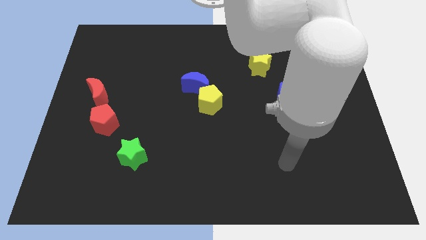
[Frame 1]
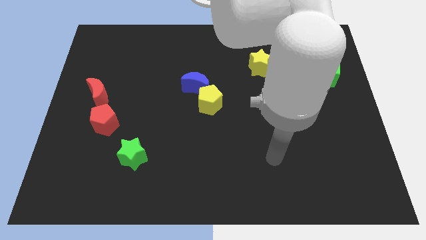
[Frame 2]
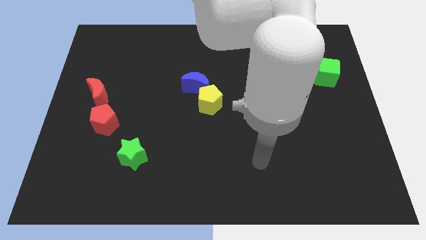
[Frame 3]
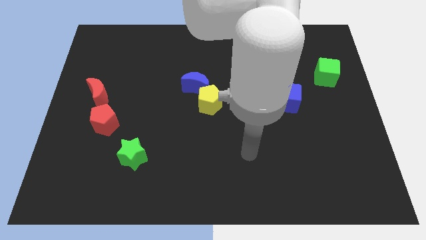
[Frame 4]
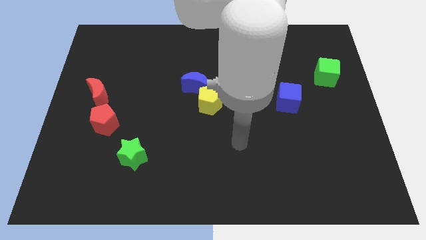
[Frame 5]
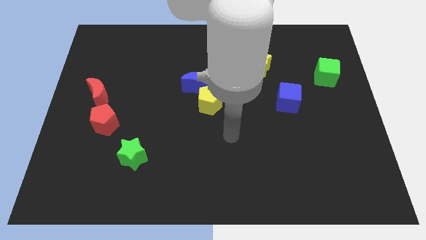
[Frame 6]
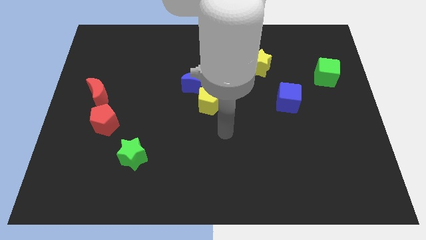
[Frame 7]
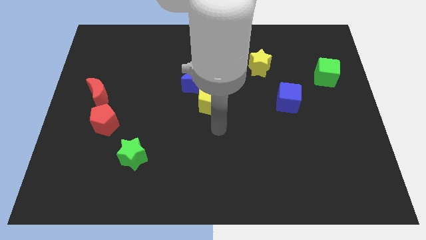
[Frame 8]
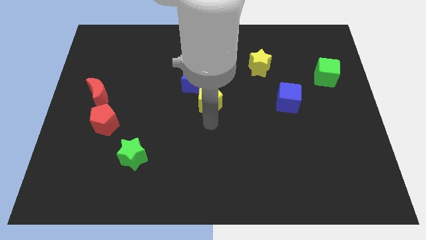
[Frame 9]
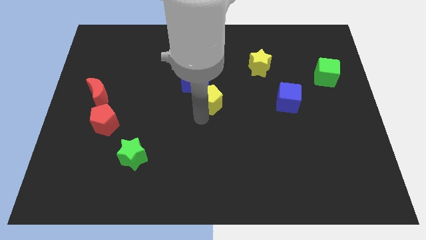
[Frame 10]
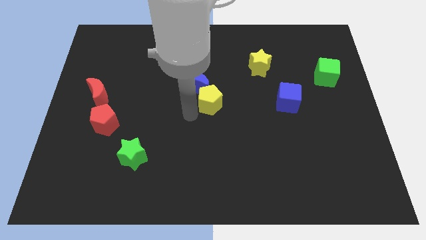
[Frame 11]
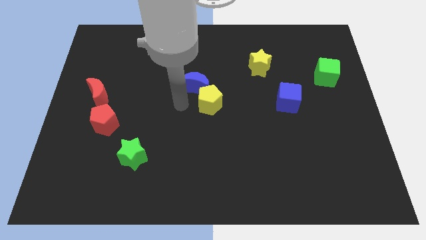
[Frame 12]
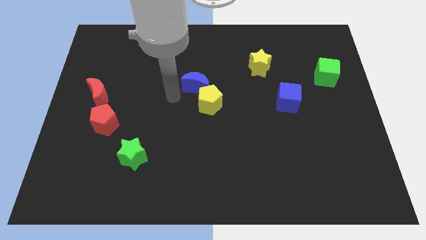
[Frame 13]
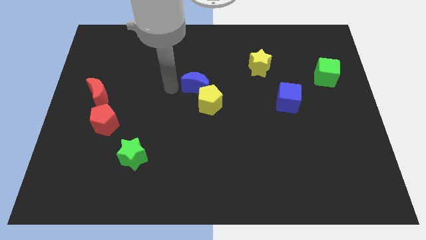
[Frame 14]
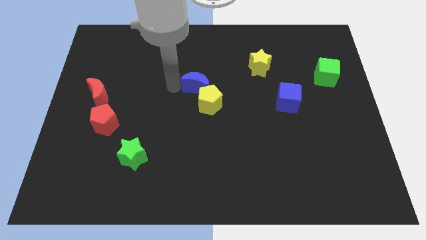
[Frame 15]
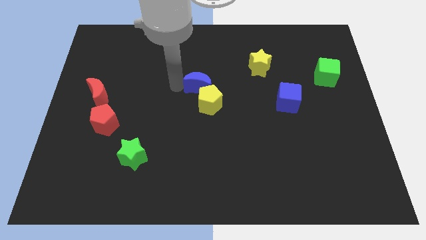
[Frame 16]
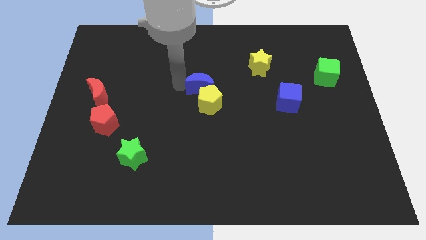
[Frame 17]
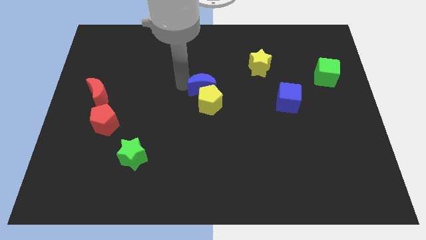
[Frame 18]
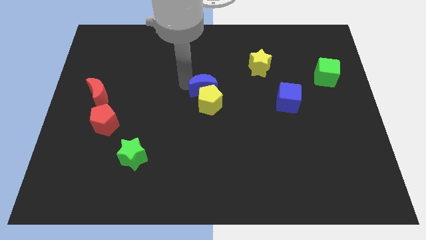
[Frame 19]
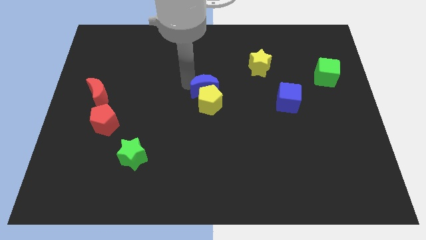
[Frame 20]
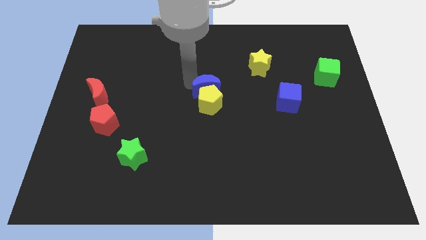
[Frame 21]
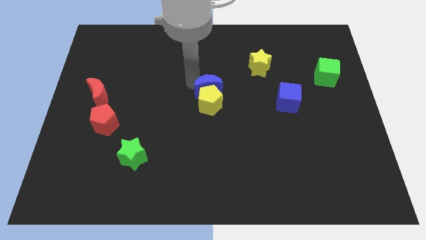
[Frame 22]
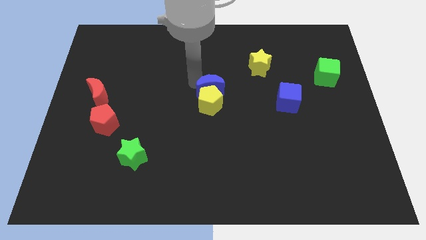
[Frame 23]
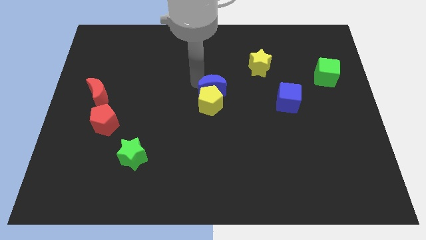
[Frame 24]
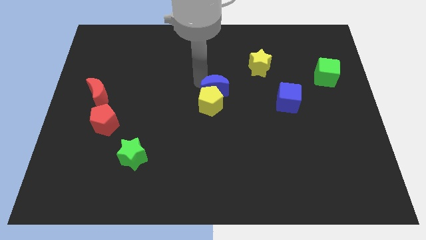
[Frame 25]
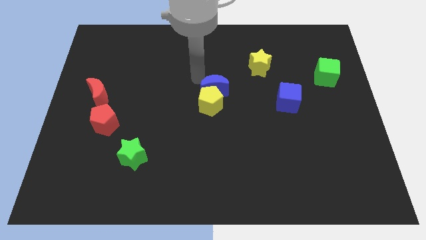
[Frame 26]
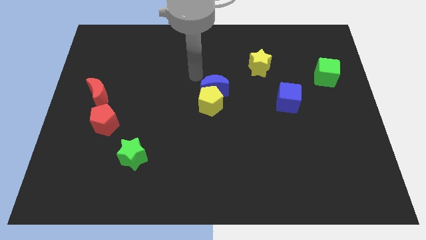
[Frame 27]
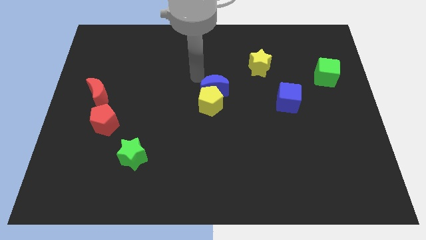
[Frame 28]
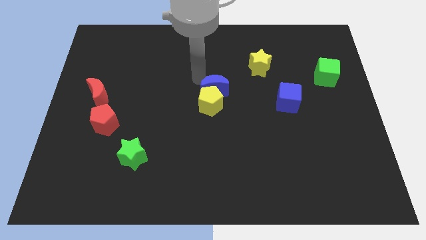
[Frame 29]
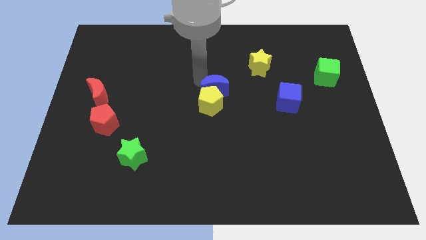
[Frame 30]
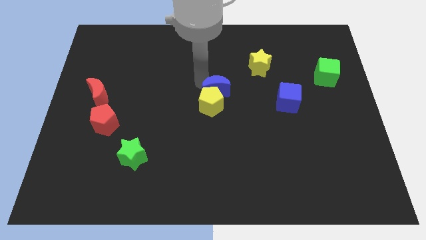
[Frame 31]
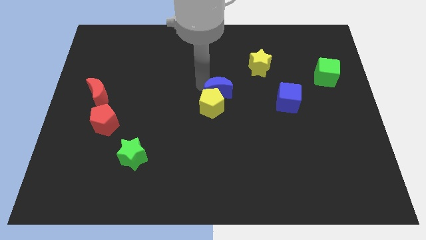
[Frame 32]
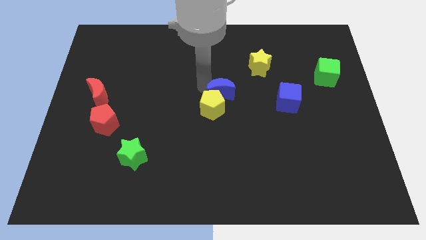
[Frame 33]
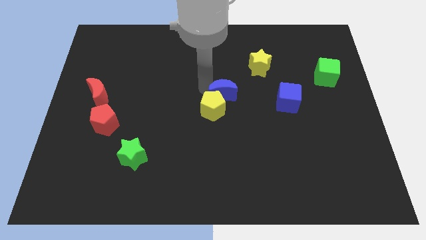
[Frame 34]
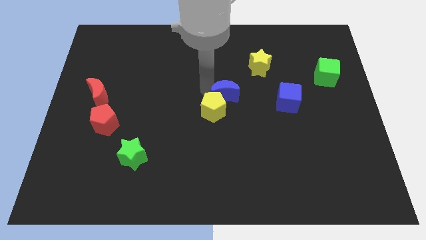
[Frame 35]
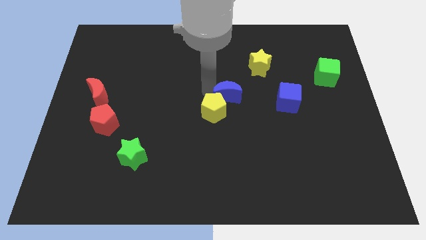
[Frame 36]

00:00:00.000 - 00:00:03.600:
slightly slide the blue moon down and then right

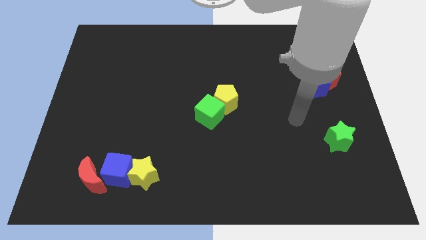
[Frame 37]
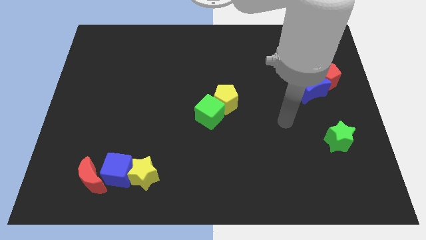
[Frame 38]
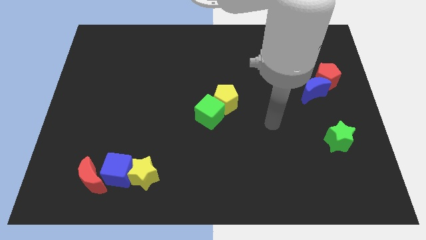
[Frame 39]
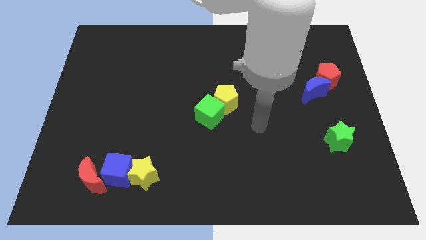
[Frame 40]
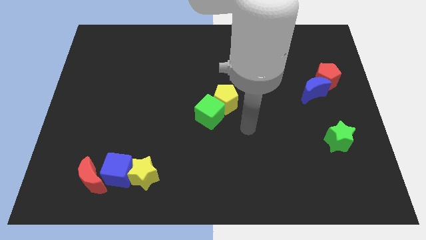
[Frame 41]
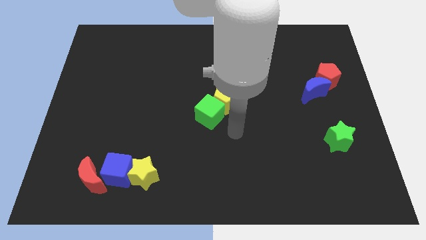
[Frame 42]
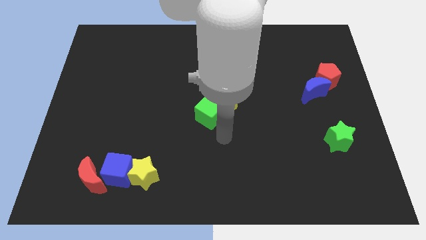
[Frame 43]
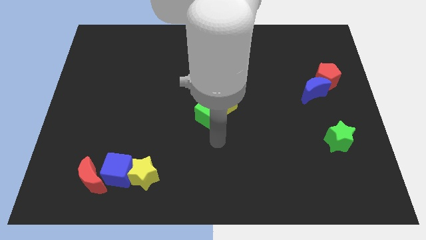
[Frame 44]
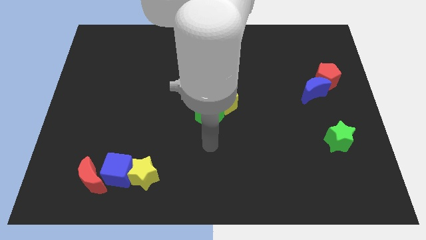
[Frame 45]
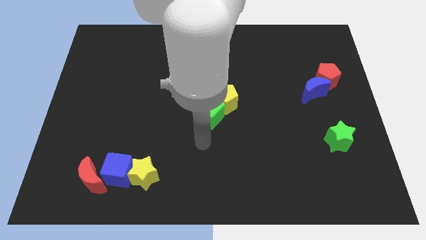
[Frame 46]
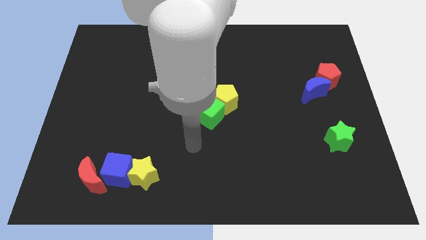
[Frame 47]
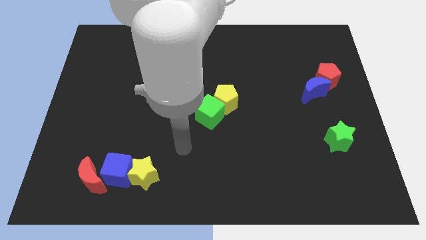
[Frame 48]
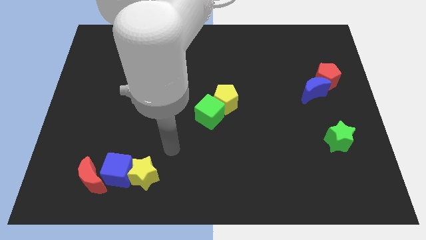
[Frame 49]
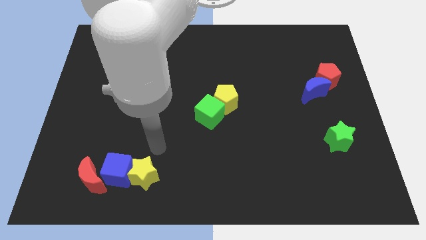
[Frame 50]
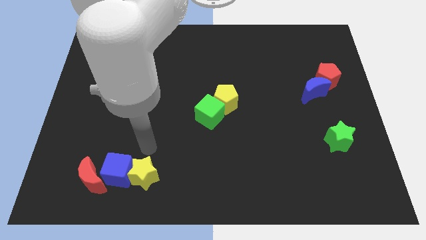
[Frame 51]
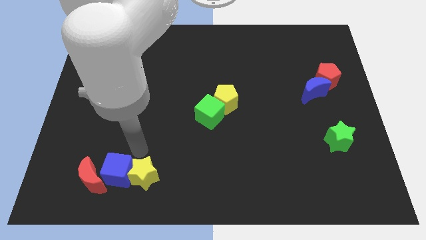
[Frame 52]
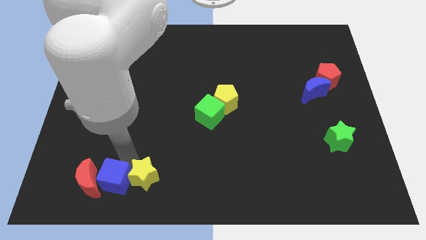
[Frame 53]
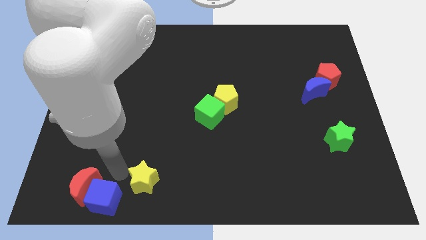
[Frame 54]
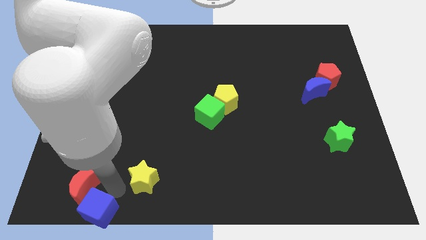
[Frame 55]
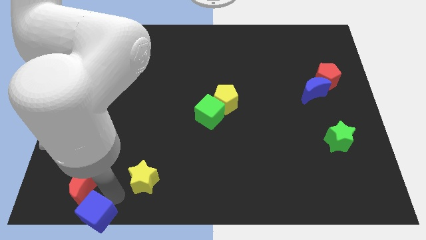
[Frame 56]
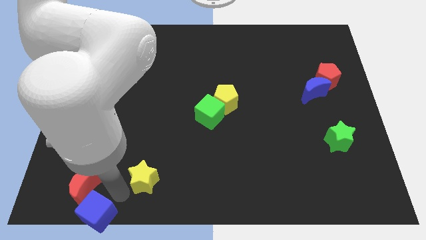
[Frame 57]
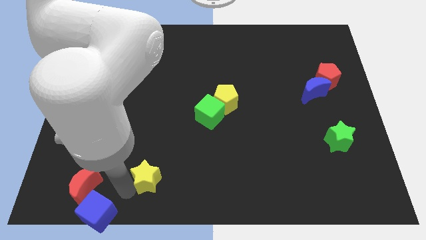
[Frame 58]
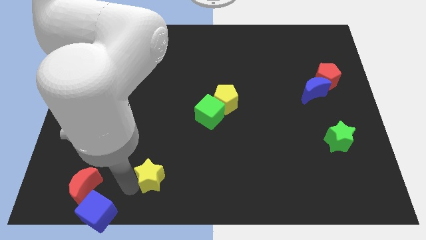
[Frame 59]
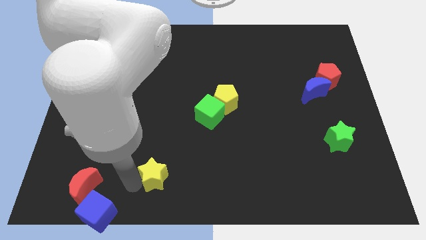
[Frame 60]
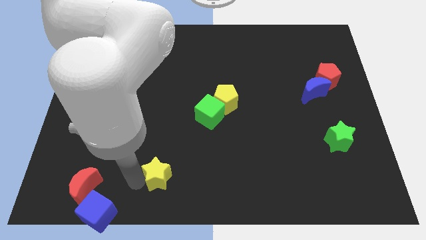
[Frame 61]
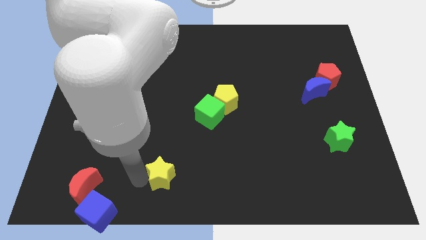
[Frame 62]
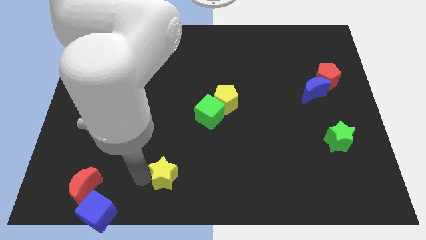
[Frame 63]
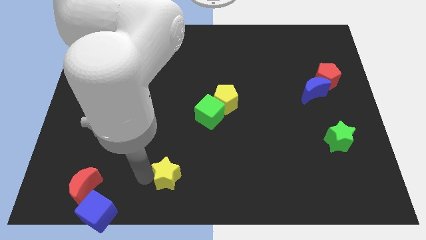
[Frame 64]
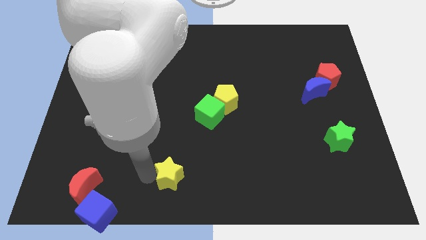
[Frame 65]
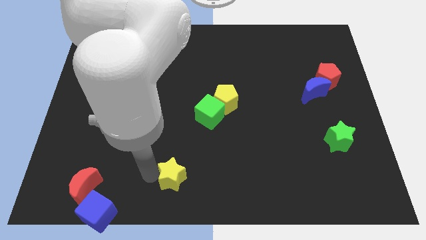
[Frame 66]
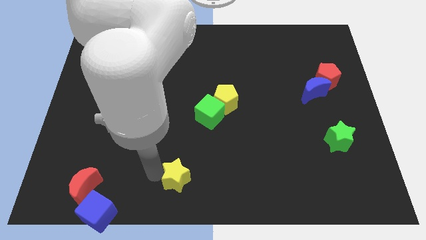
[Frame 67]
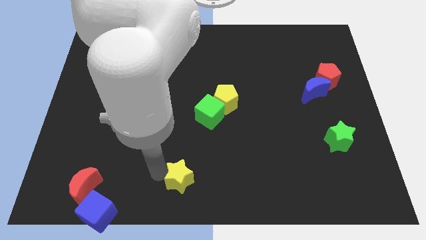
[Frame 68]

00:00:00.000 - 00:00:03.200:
slide the yellow star slightly to the right

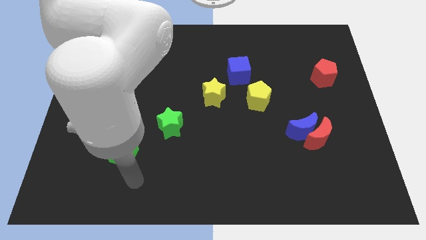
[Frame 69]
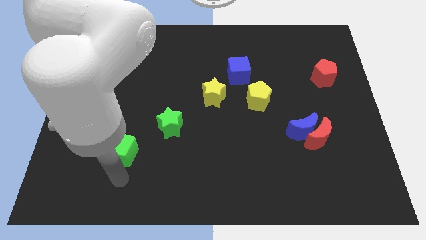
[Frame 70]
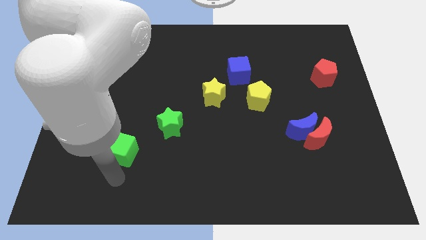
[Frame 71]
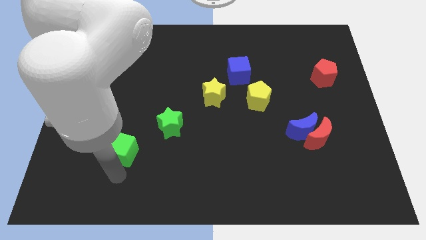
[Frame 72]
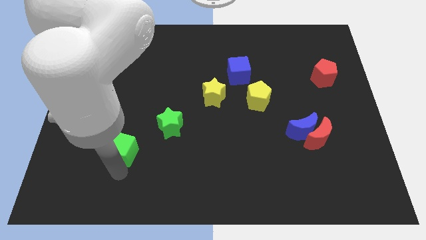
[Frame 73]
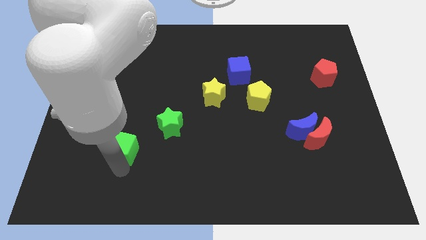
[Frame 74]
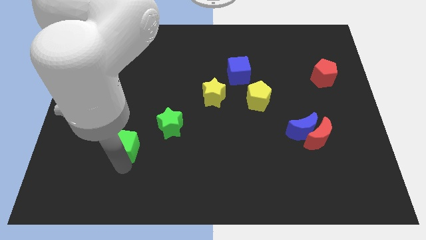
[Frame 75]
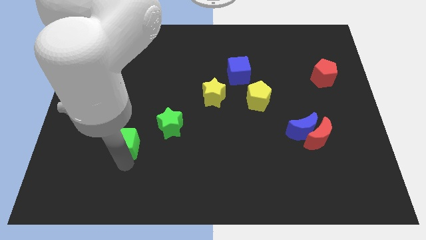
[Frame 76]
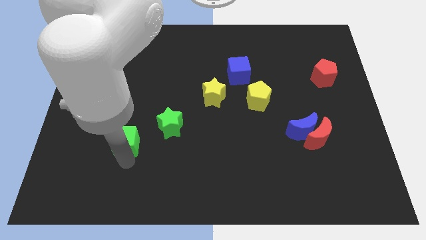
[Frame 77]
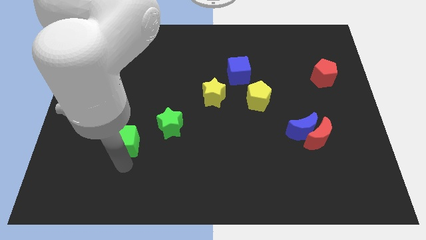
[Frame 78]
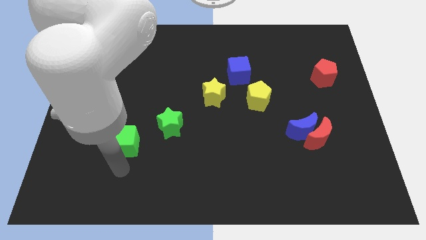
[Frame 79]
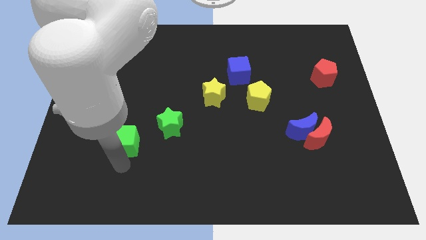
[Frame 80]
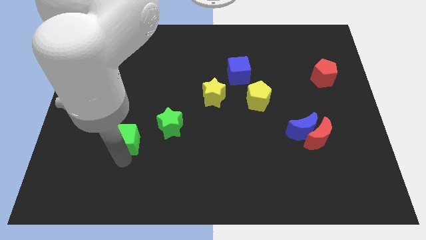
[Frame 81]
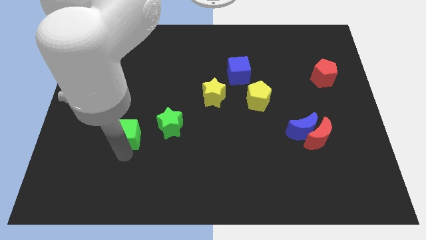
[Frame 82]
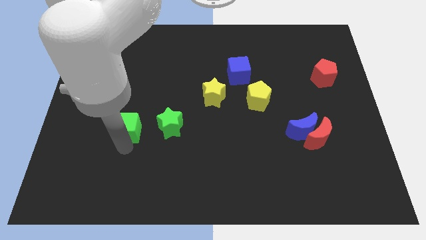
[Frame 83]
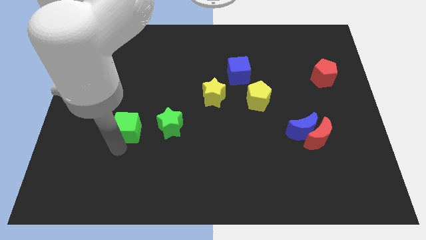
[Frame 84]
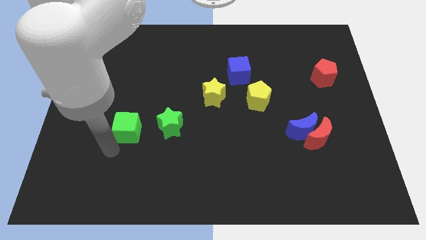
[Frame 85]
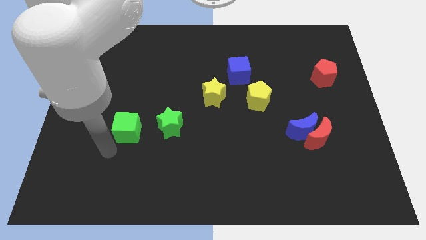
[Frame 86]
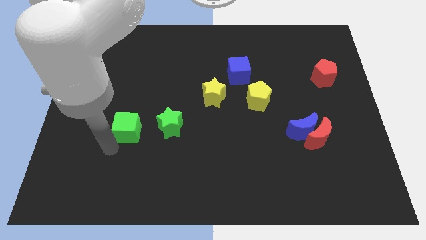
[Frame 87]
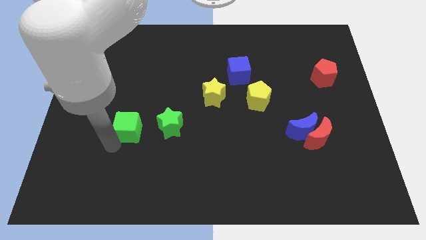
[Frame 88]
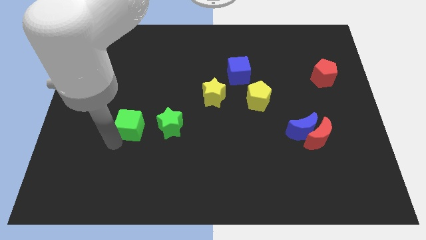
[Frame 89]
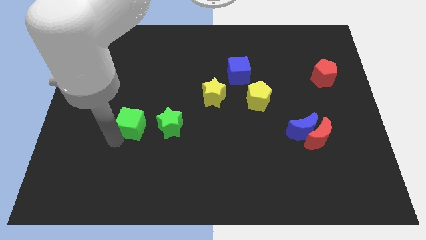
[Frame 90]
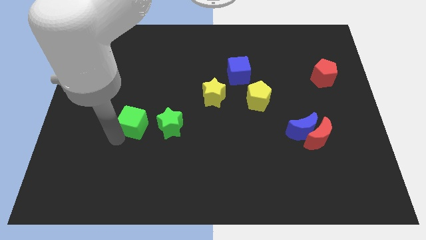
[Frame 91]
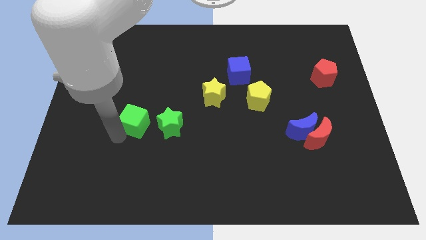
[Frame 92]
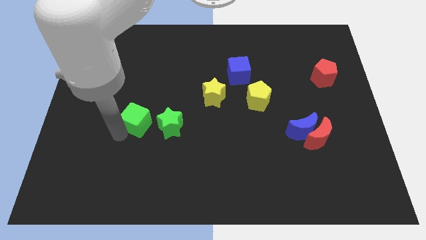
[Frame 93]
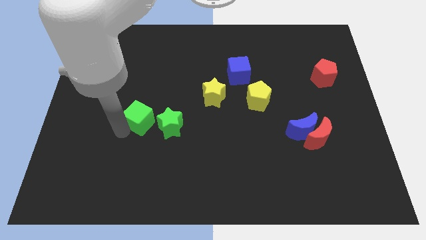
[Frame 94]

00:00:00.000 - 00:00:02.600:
move the green cube up and then right a little bit
